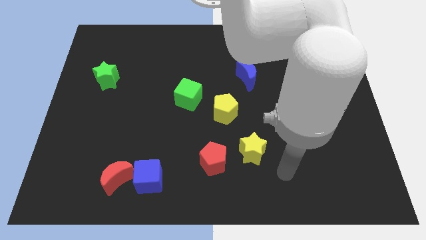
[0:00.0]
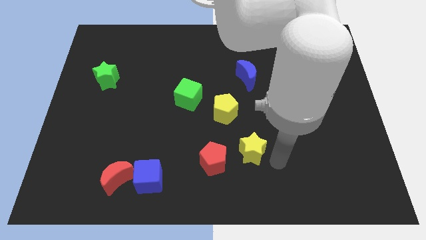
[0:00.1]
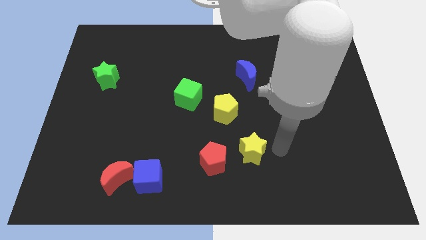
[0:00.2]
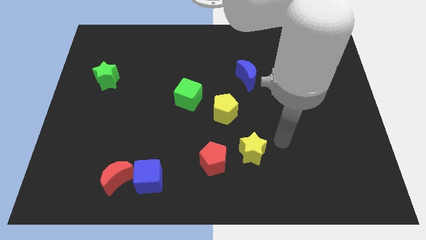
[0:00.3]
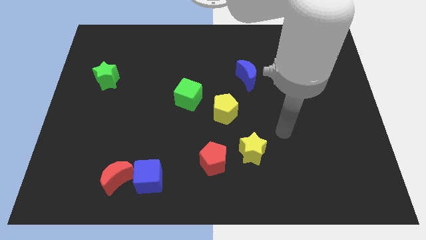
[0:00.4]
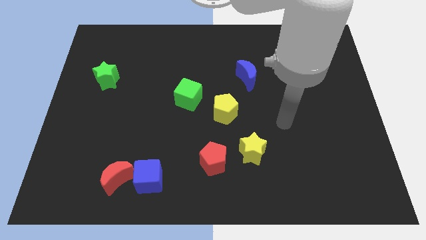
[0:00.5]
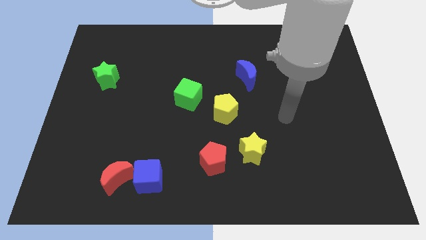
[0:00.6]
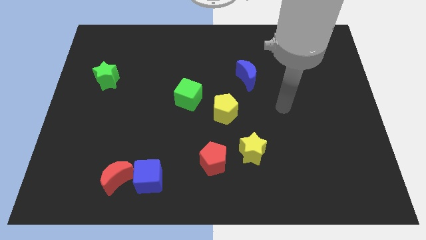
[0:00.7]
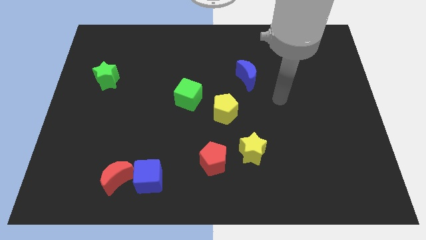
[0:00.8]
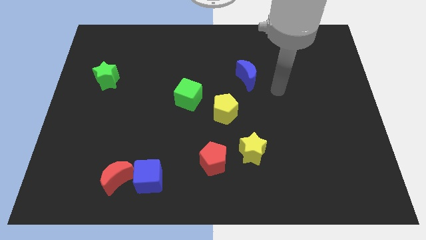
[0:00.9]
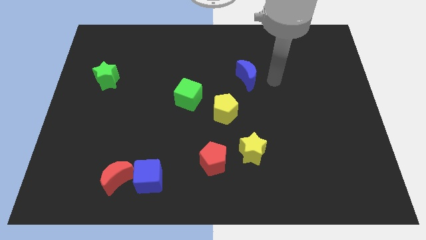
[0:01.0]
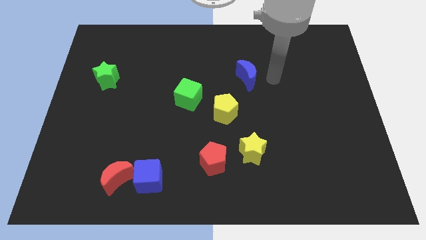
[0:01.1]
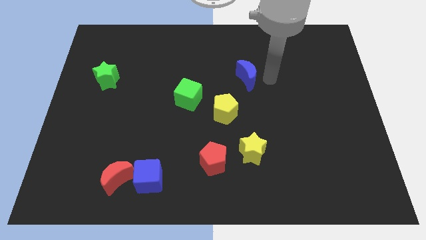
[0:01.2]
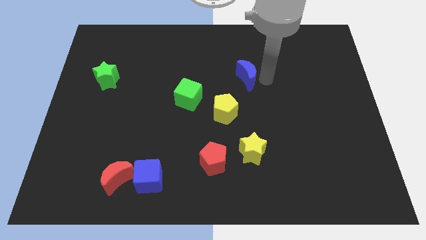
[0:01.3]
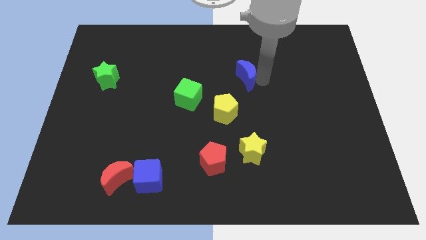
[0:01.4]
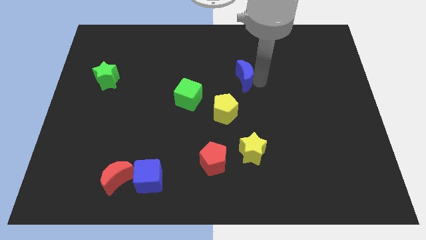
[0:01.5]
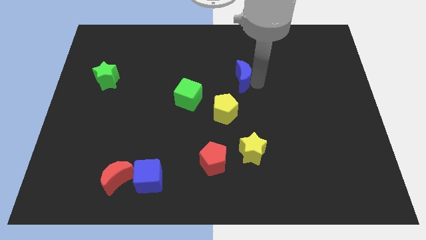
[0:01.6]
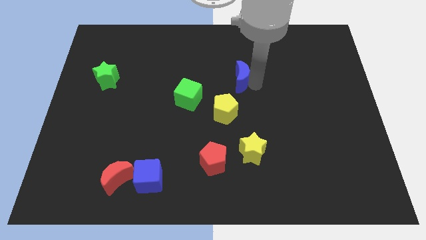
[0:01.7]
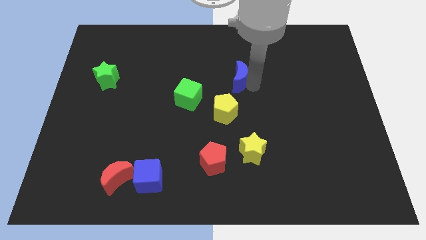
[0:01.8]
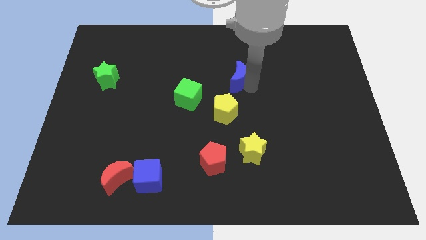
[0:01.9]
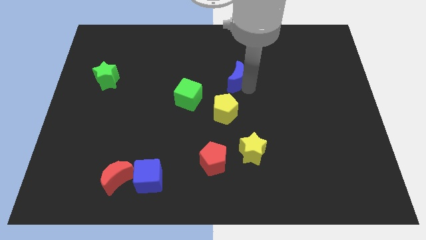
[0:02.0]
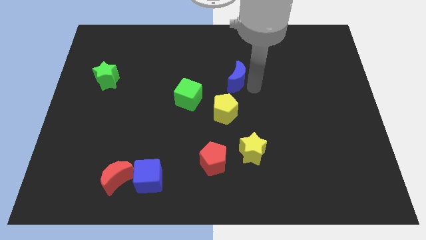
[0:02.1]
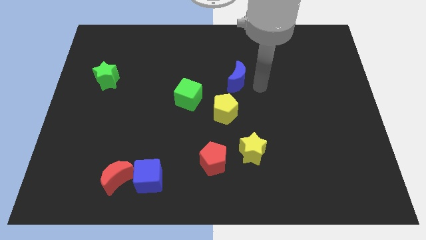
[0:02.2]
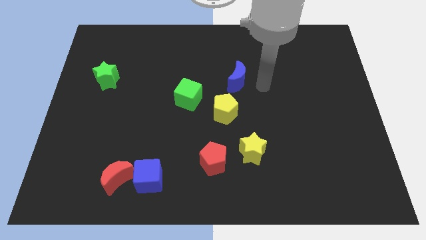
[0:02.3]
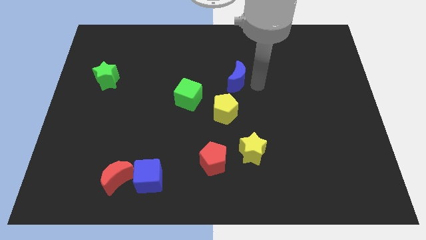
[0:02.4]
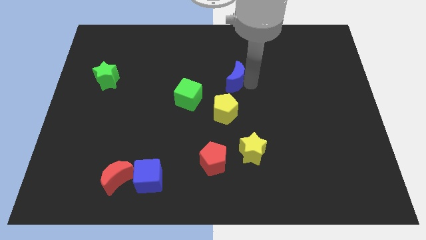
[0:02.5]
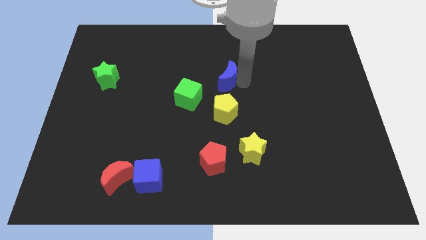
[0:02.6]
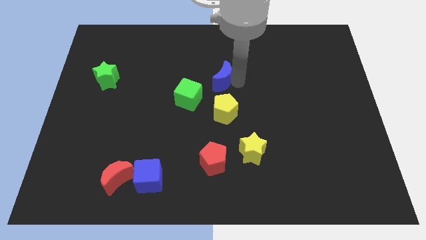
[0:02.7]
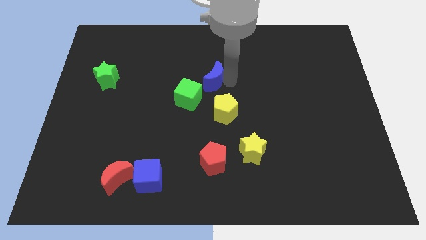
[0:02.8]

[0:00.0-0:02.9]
move the blue moon a little bit left

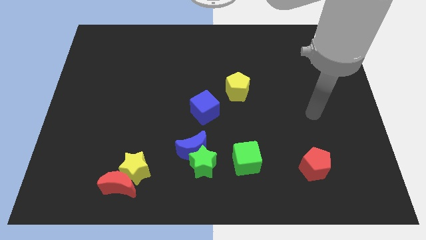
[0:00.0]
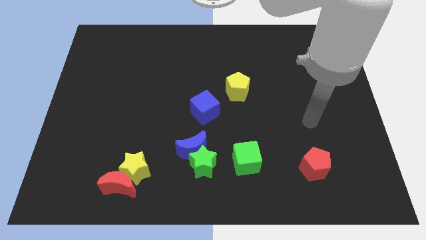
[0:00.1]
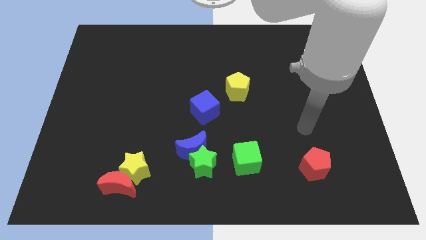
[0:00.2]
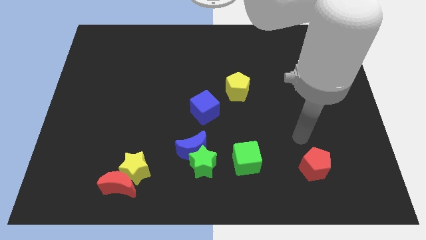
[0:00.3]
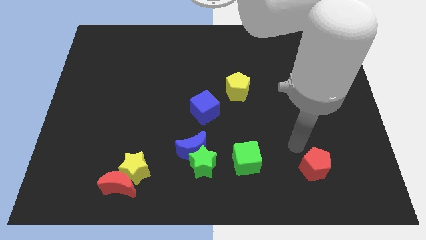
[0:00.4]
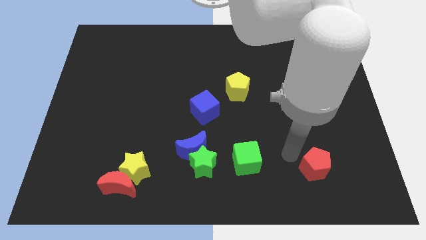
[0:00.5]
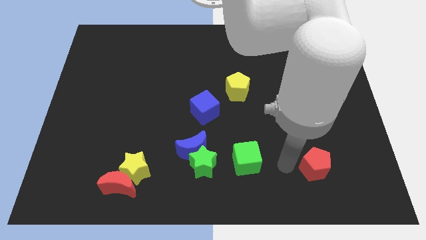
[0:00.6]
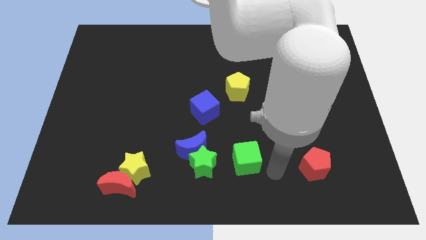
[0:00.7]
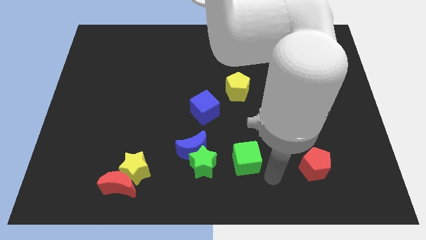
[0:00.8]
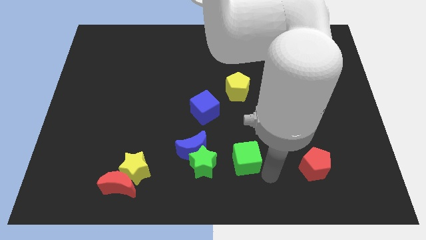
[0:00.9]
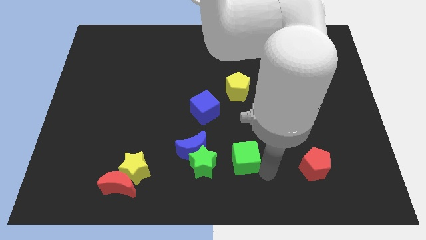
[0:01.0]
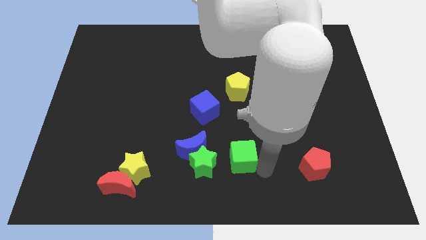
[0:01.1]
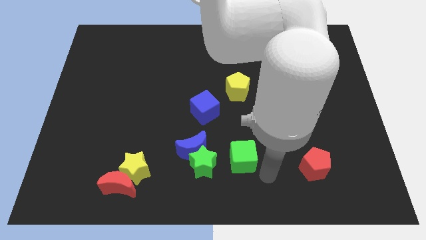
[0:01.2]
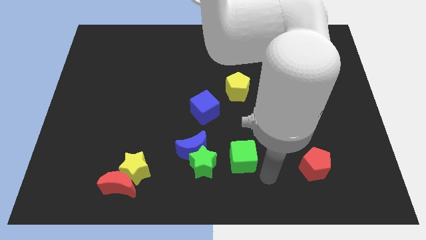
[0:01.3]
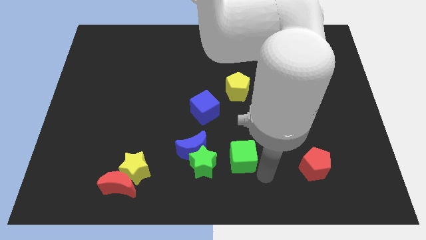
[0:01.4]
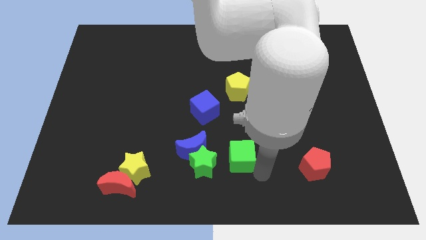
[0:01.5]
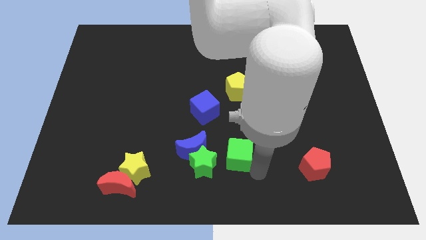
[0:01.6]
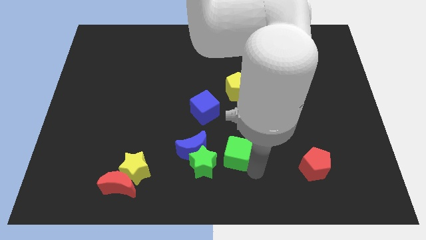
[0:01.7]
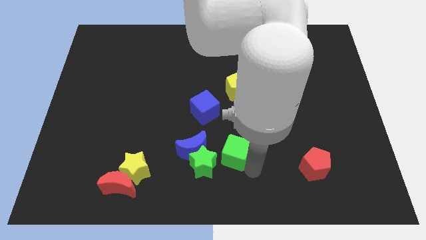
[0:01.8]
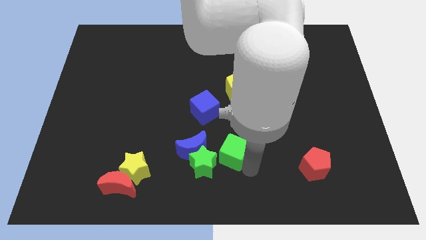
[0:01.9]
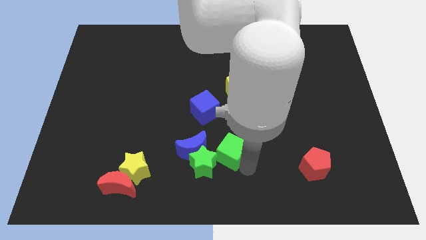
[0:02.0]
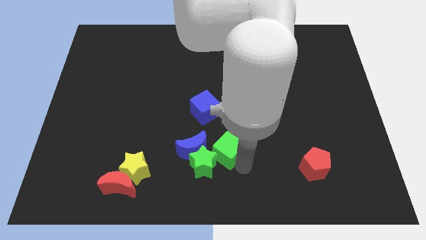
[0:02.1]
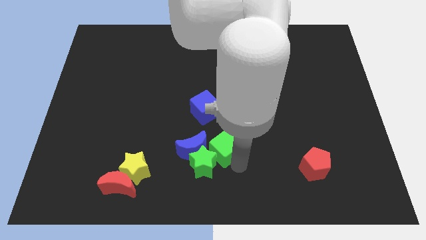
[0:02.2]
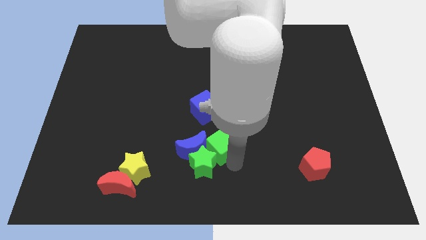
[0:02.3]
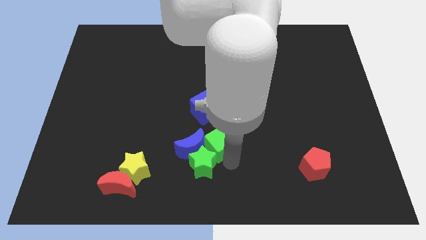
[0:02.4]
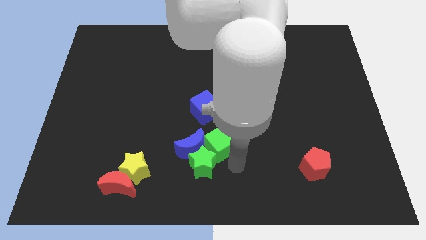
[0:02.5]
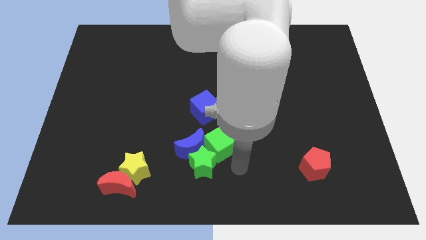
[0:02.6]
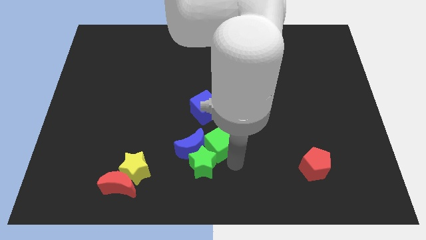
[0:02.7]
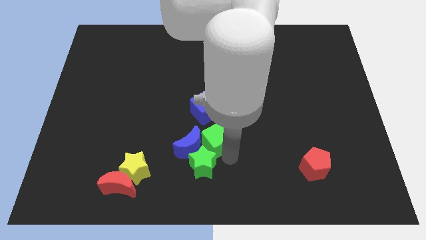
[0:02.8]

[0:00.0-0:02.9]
slightly move the green cube upwards and left diagonally

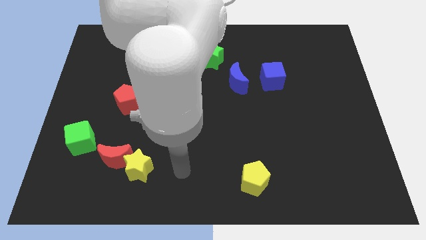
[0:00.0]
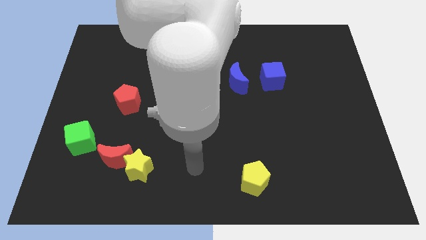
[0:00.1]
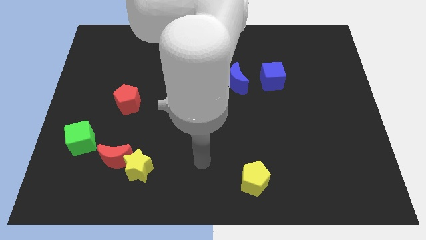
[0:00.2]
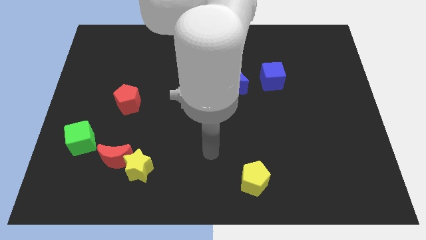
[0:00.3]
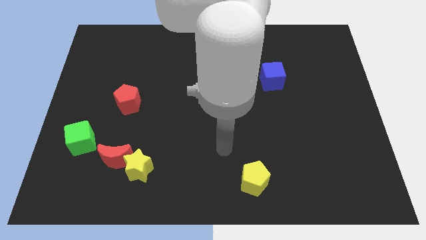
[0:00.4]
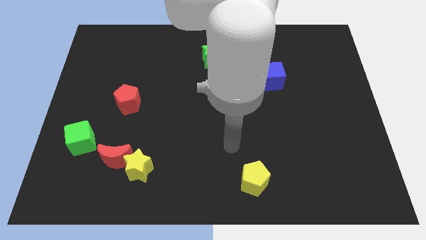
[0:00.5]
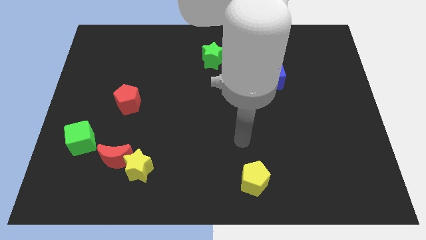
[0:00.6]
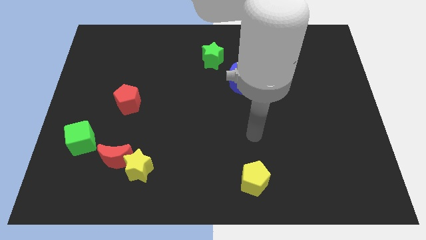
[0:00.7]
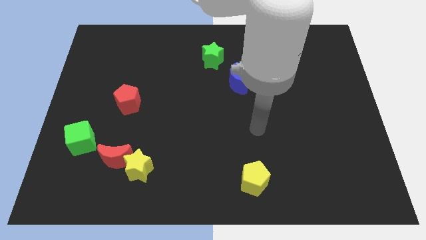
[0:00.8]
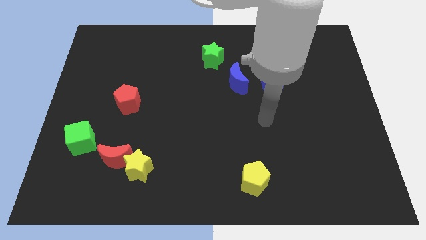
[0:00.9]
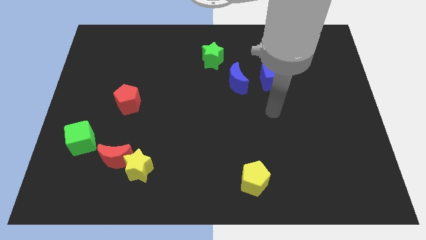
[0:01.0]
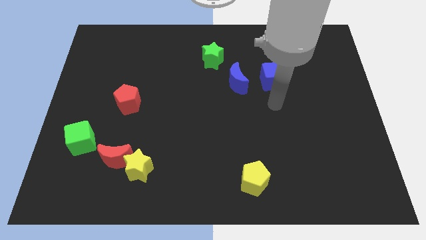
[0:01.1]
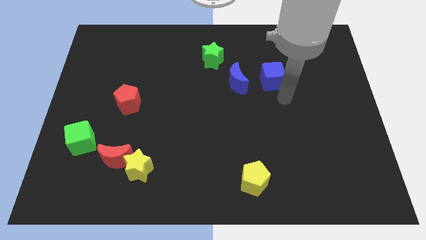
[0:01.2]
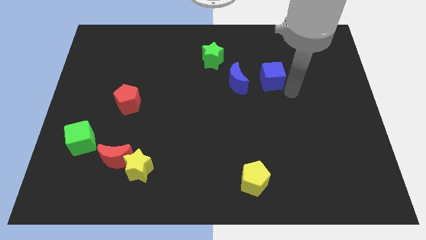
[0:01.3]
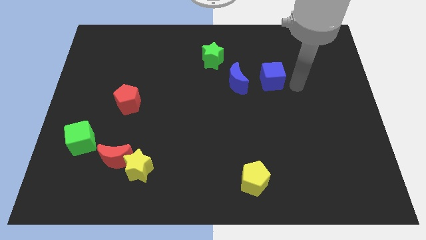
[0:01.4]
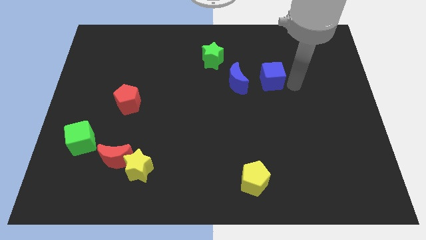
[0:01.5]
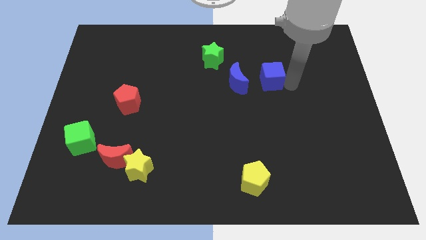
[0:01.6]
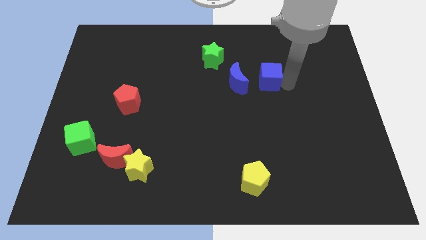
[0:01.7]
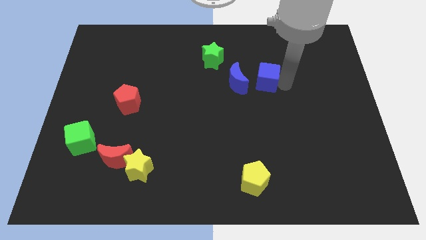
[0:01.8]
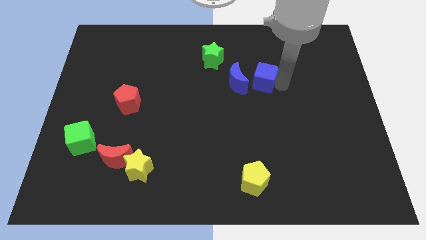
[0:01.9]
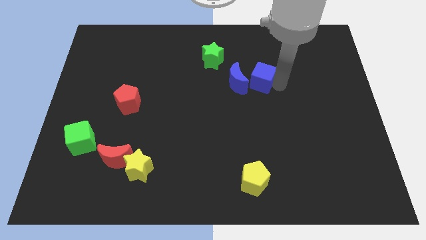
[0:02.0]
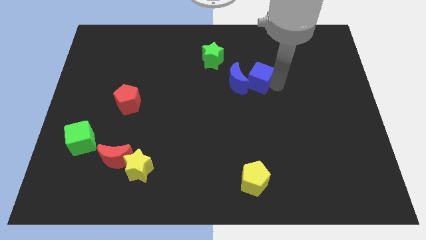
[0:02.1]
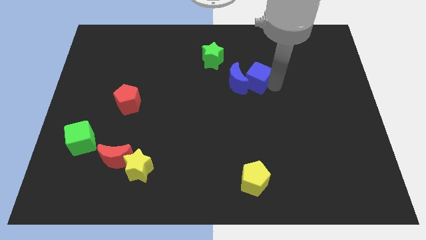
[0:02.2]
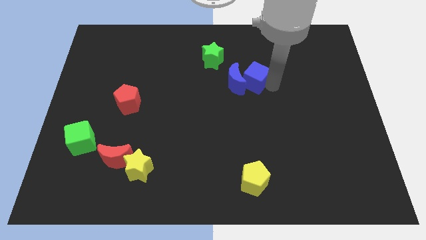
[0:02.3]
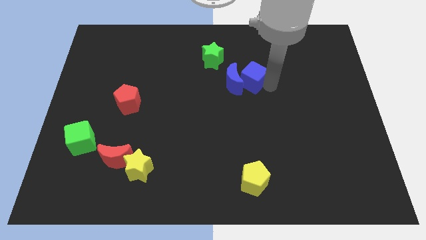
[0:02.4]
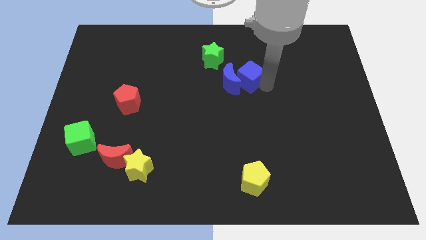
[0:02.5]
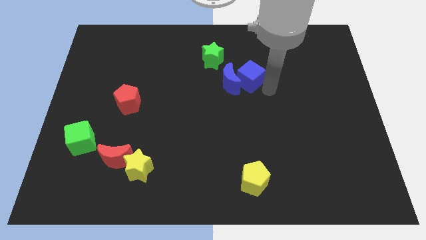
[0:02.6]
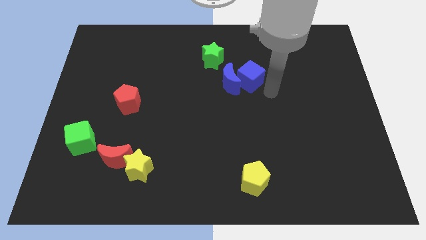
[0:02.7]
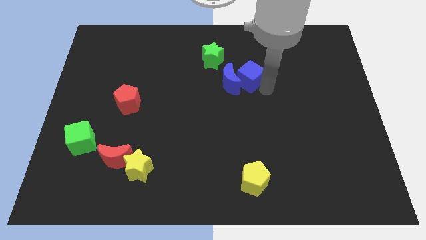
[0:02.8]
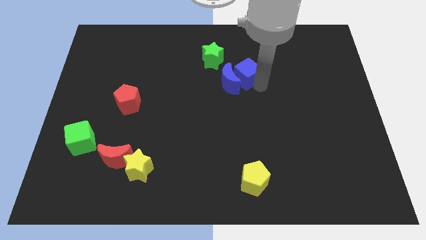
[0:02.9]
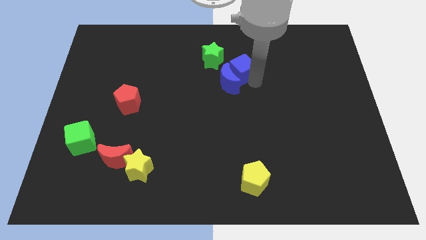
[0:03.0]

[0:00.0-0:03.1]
slide the blue cube left slightly
